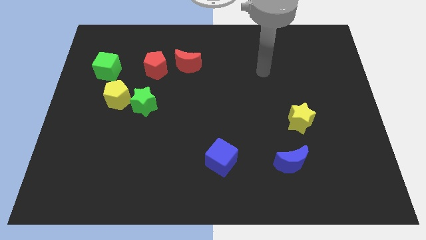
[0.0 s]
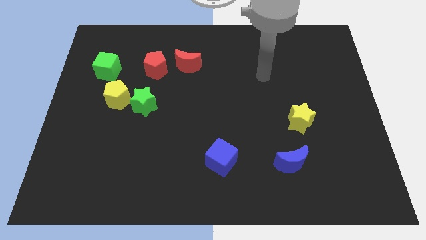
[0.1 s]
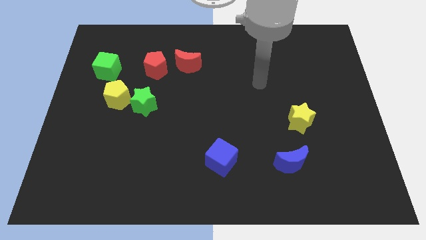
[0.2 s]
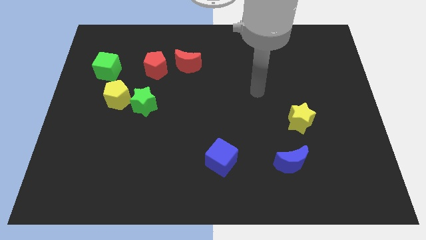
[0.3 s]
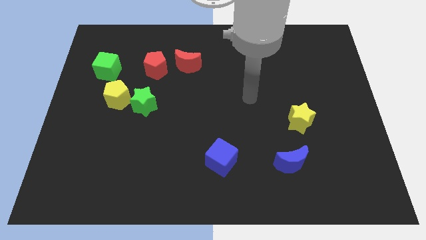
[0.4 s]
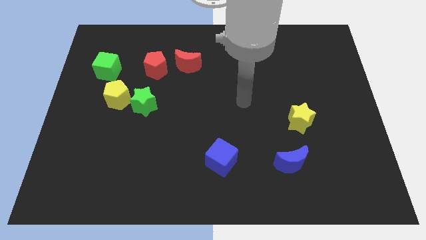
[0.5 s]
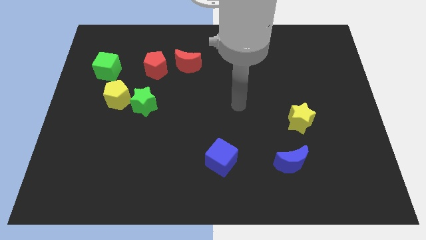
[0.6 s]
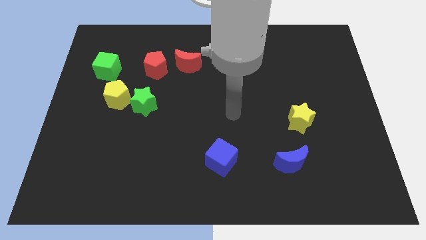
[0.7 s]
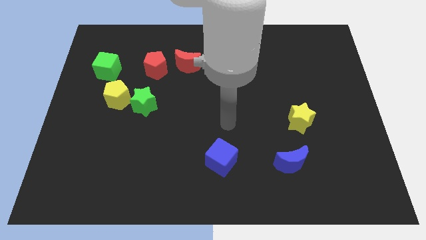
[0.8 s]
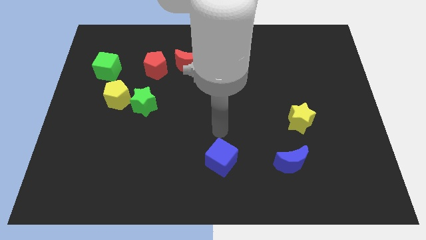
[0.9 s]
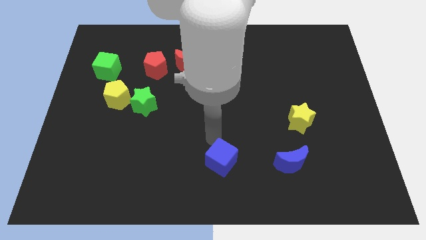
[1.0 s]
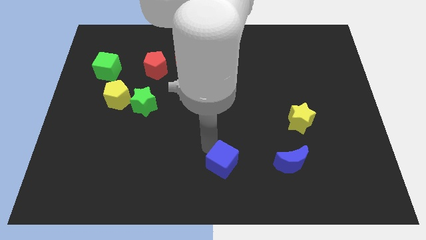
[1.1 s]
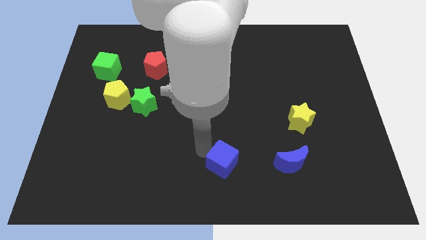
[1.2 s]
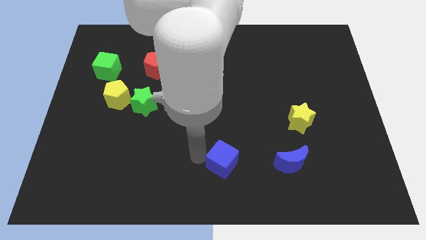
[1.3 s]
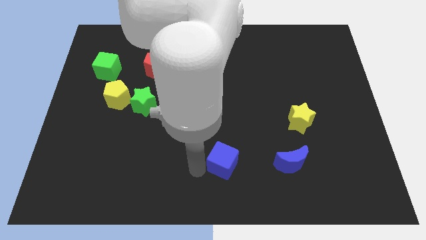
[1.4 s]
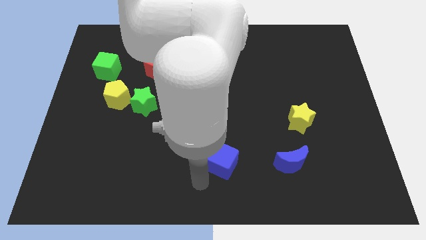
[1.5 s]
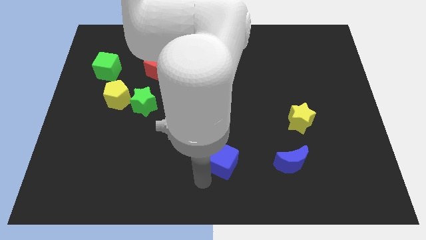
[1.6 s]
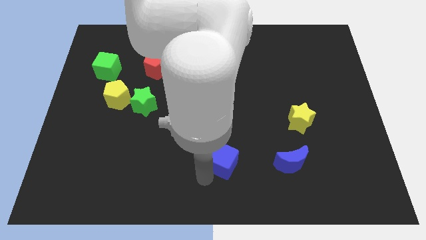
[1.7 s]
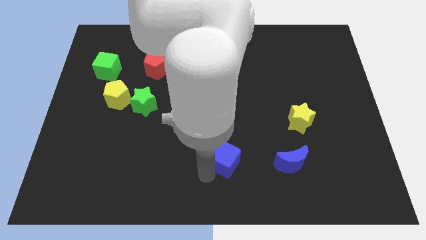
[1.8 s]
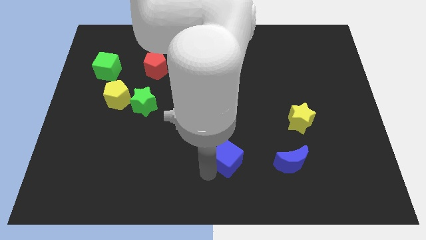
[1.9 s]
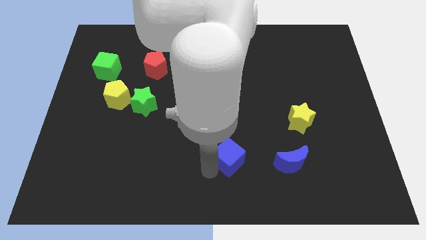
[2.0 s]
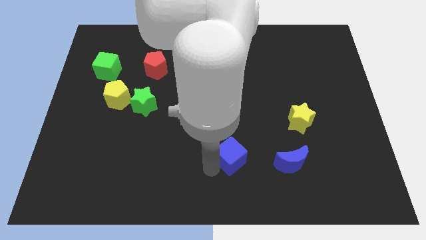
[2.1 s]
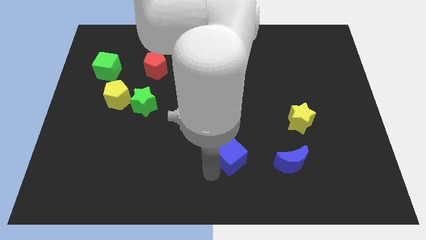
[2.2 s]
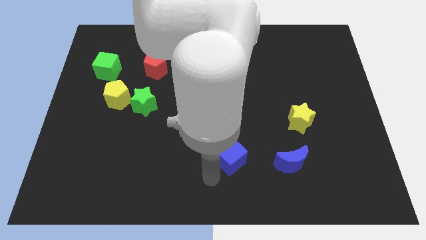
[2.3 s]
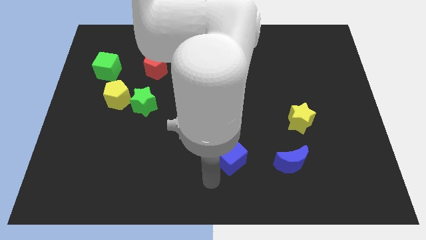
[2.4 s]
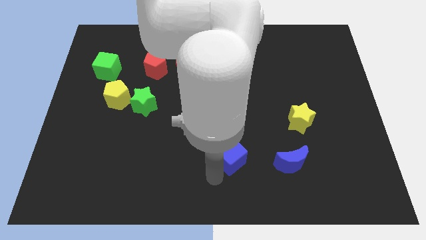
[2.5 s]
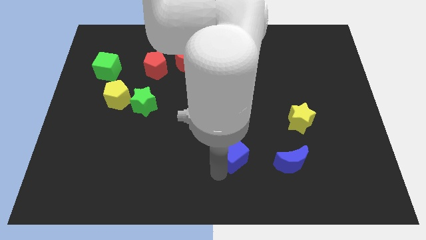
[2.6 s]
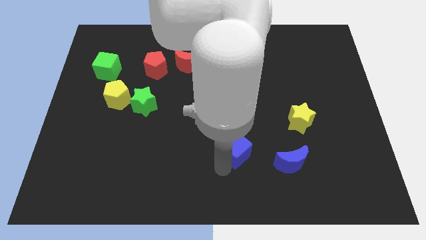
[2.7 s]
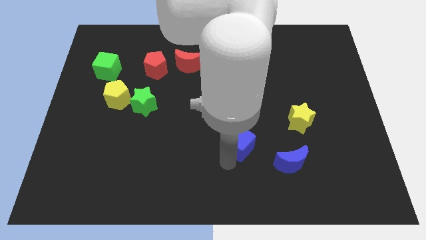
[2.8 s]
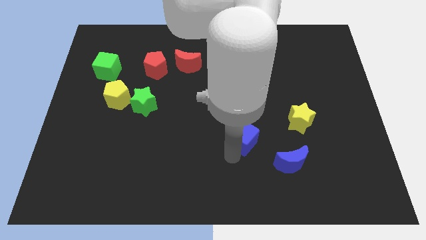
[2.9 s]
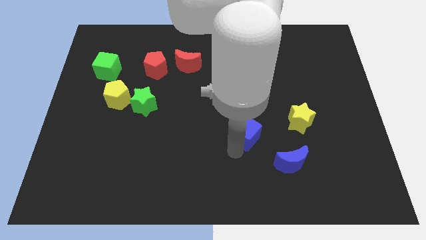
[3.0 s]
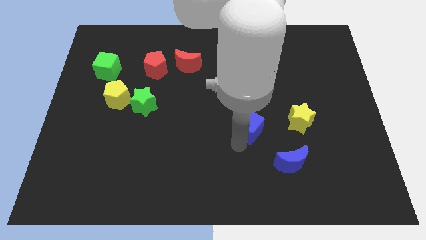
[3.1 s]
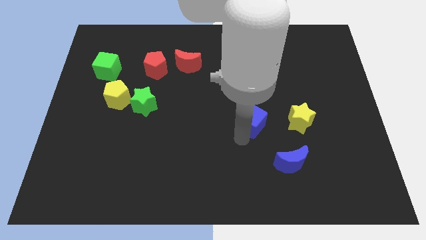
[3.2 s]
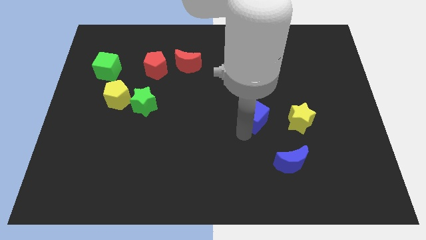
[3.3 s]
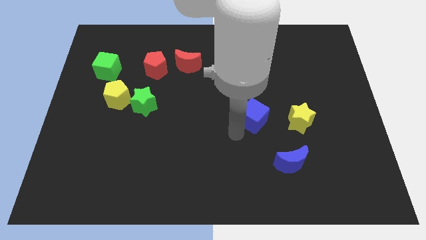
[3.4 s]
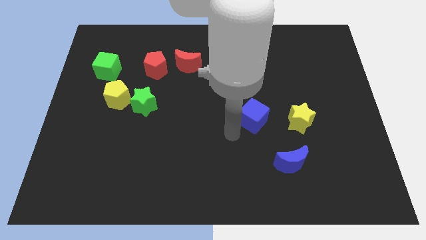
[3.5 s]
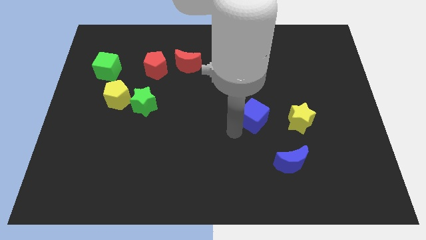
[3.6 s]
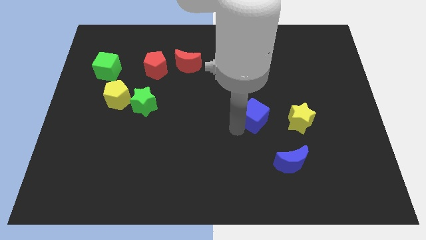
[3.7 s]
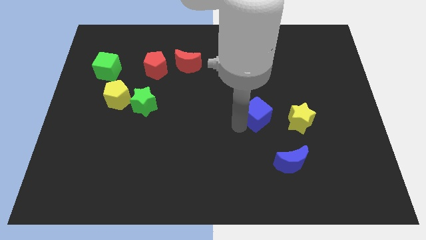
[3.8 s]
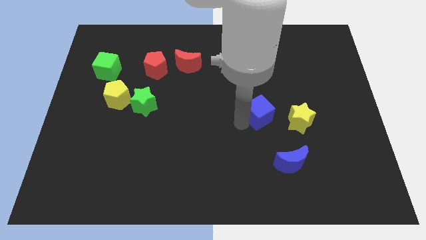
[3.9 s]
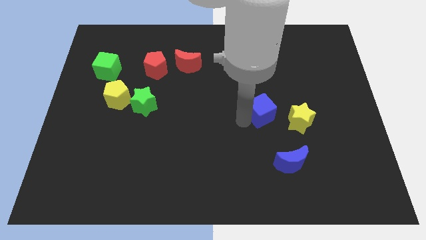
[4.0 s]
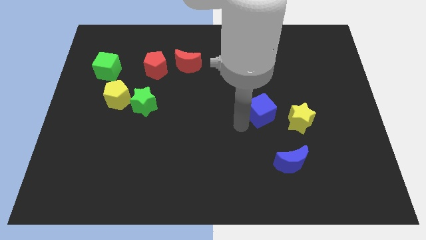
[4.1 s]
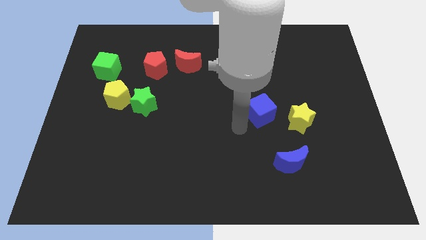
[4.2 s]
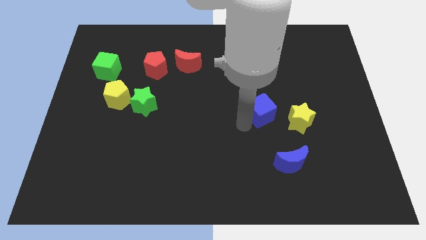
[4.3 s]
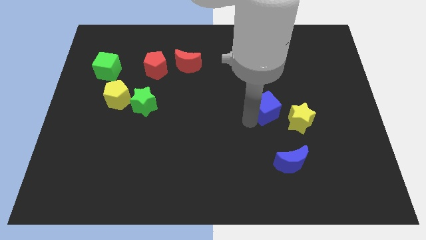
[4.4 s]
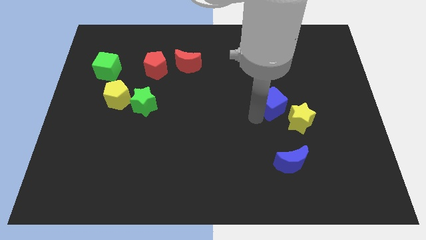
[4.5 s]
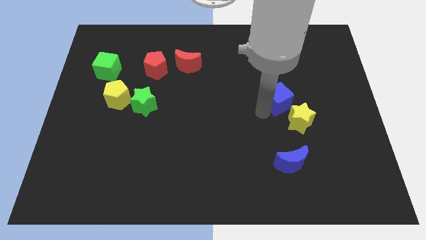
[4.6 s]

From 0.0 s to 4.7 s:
slide the blue cube diagonally upwards and to the right

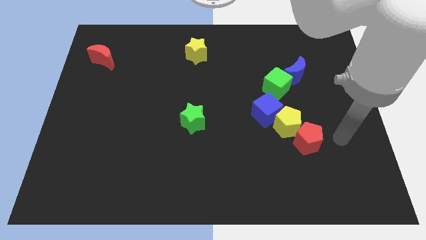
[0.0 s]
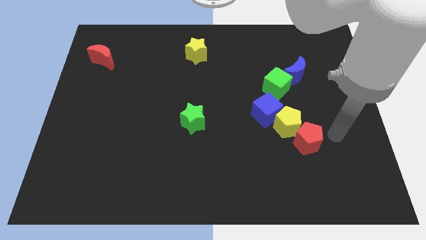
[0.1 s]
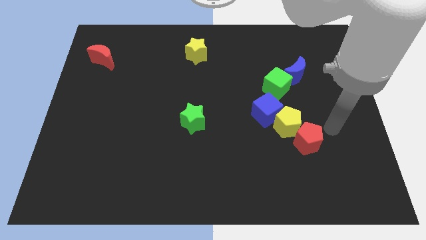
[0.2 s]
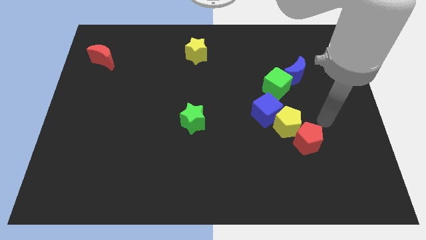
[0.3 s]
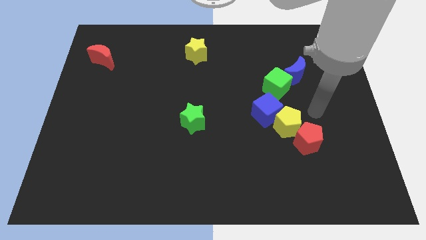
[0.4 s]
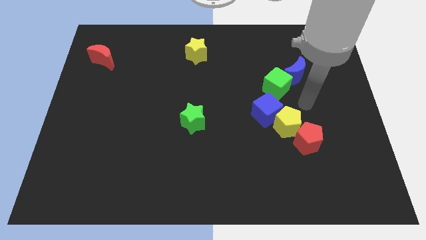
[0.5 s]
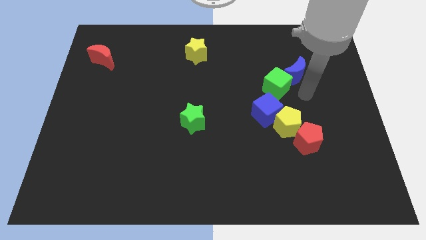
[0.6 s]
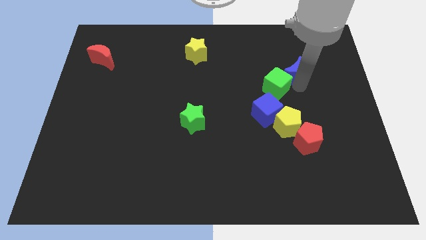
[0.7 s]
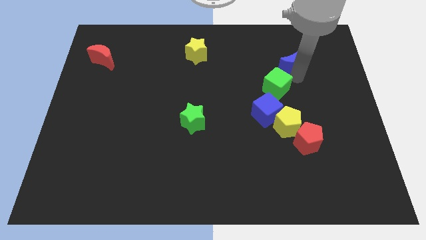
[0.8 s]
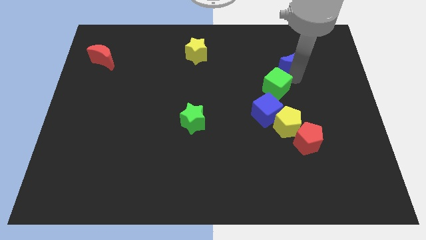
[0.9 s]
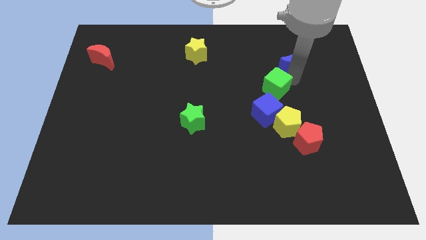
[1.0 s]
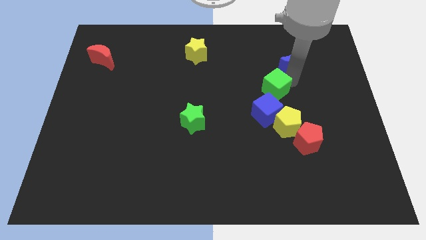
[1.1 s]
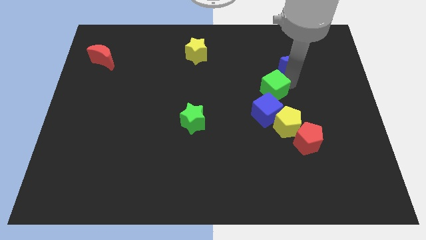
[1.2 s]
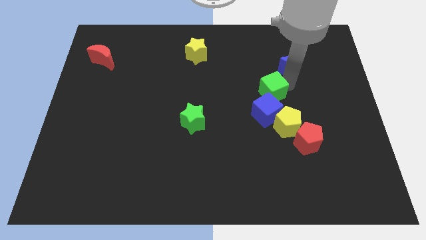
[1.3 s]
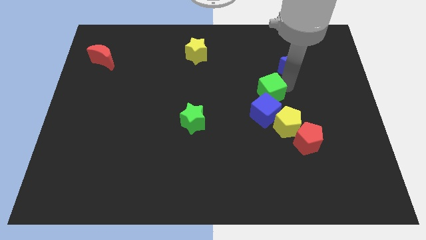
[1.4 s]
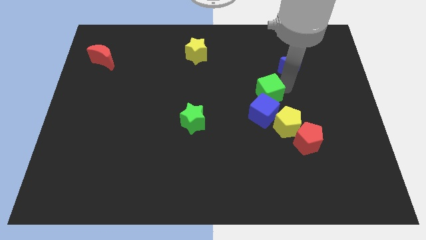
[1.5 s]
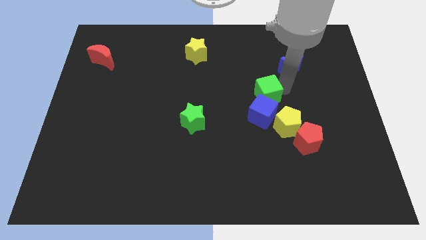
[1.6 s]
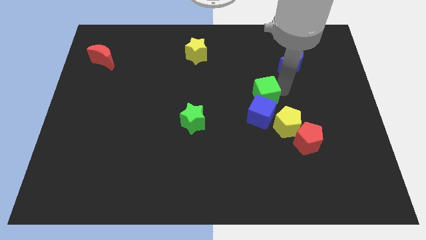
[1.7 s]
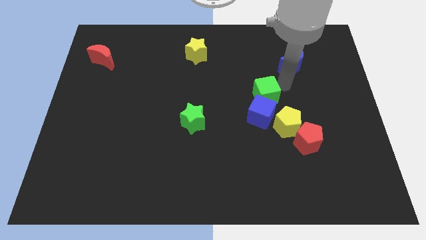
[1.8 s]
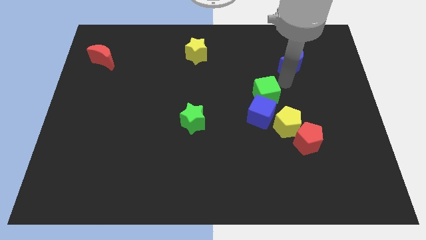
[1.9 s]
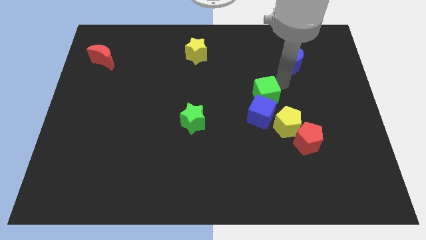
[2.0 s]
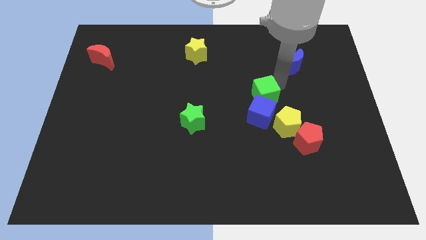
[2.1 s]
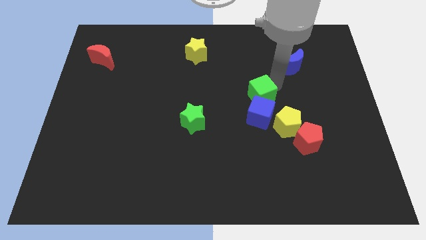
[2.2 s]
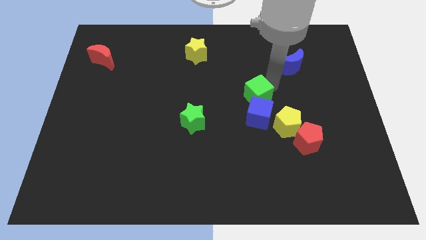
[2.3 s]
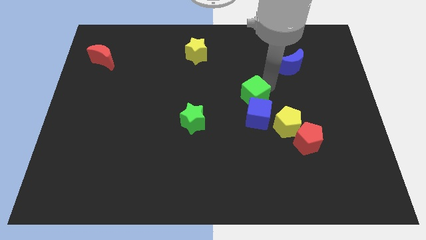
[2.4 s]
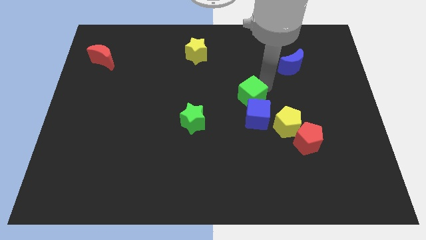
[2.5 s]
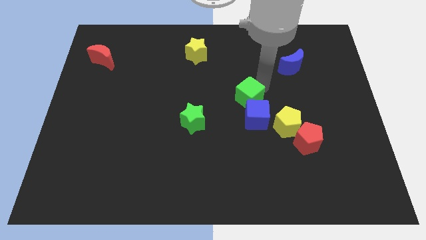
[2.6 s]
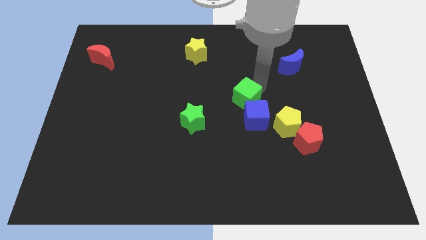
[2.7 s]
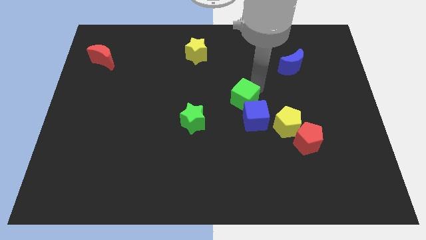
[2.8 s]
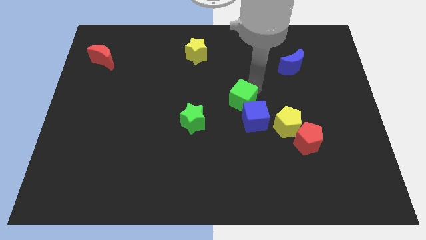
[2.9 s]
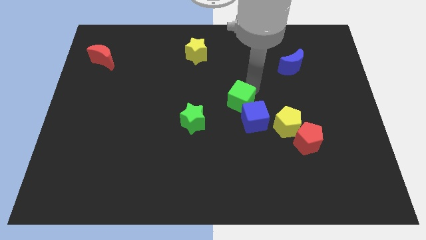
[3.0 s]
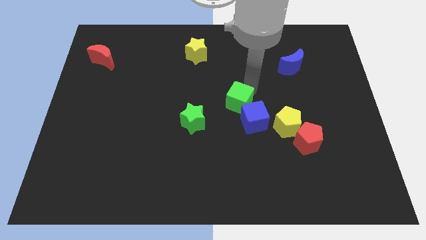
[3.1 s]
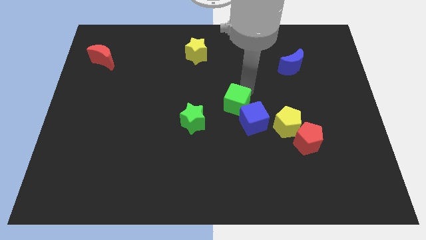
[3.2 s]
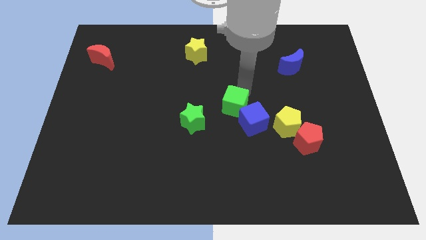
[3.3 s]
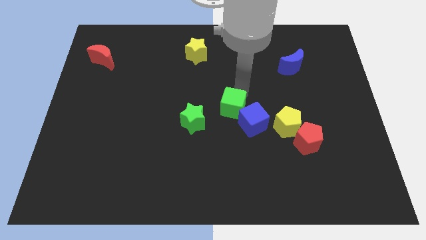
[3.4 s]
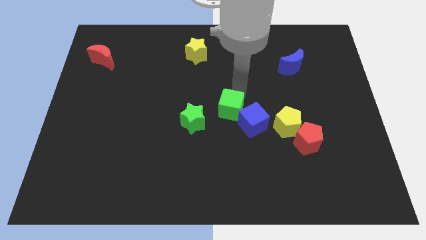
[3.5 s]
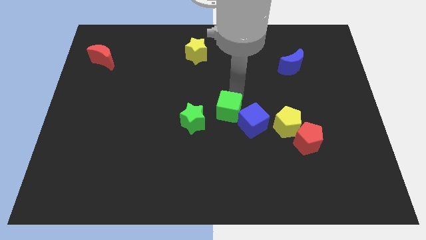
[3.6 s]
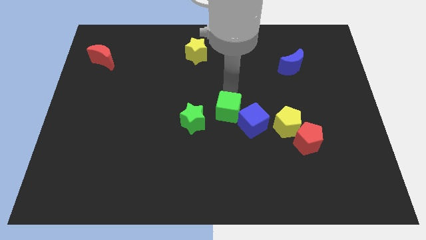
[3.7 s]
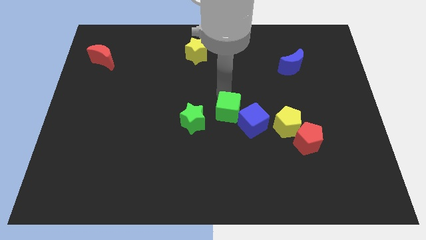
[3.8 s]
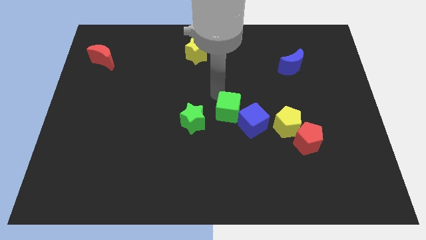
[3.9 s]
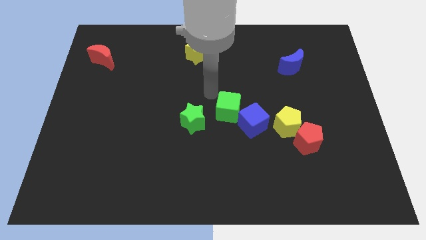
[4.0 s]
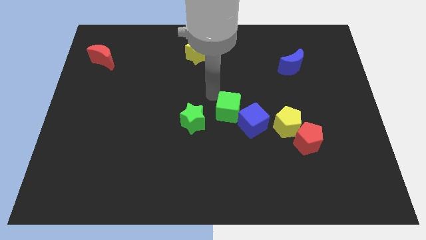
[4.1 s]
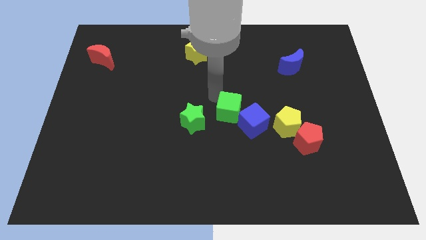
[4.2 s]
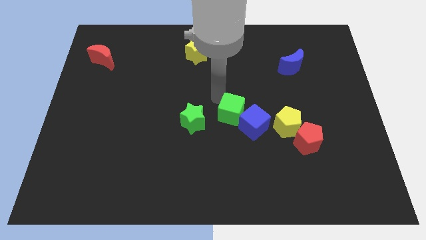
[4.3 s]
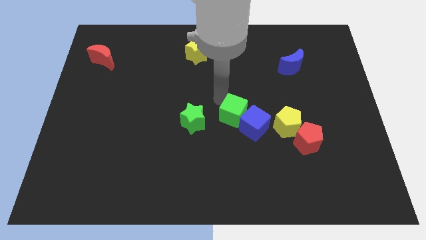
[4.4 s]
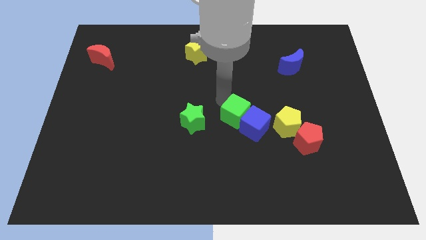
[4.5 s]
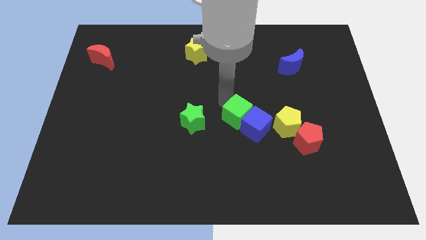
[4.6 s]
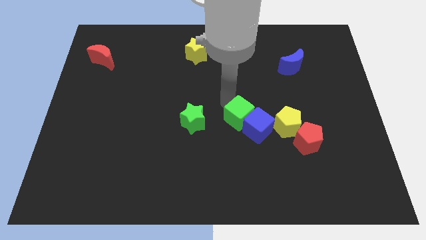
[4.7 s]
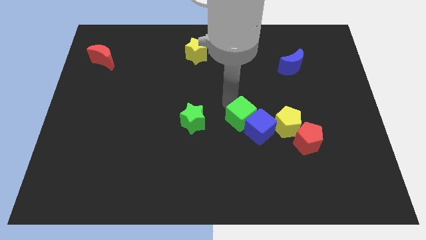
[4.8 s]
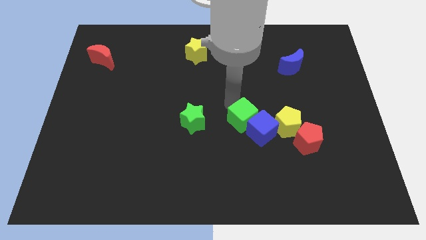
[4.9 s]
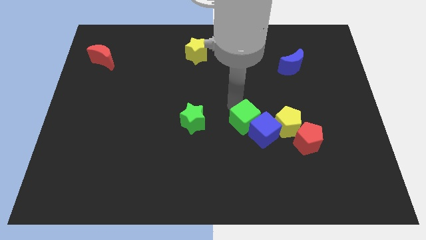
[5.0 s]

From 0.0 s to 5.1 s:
push the green cube a bit downwards
